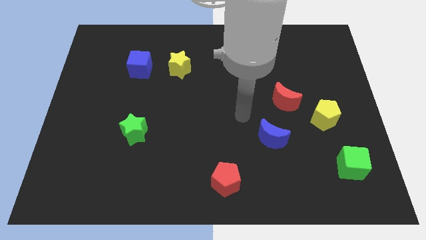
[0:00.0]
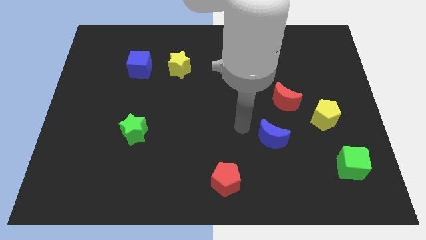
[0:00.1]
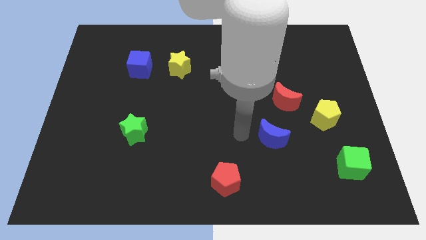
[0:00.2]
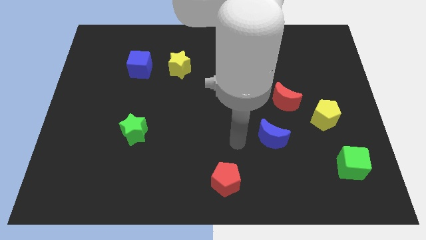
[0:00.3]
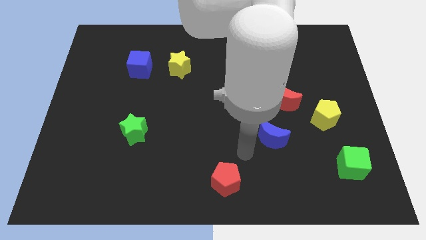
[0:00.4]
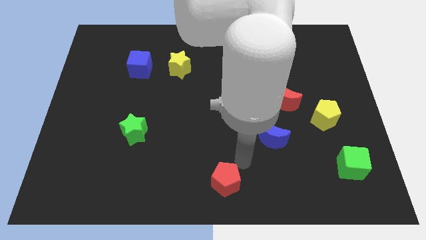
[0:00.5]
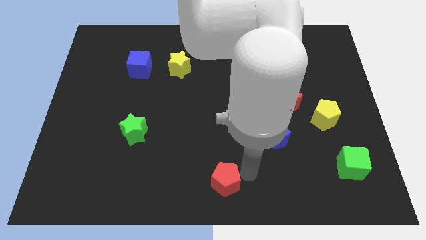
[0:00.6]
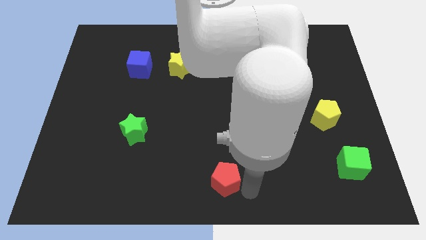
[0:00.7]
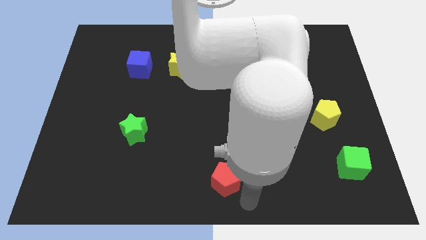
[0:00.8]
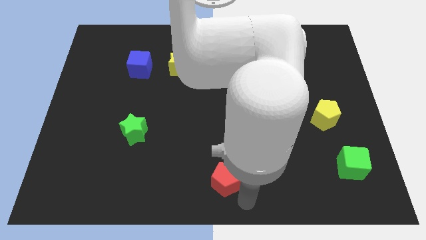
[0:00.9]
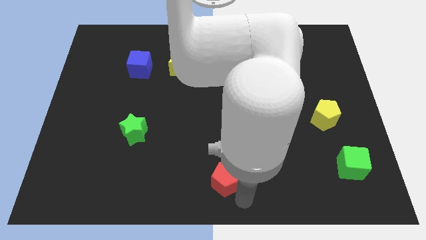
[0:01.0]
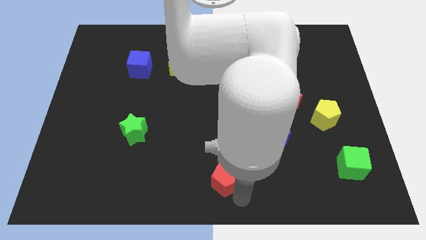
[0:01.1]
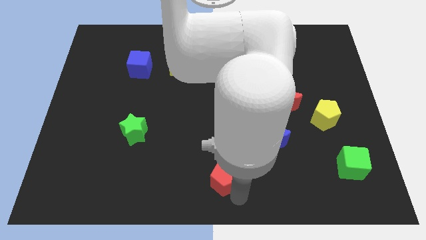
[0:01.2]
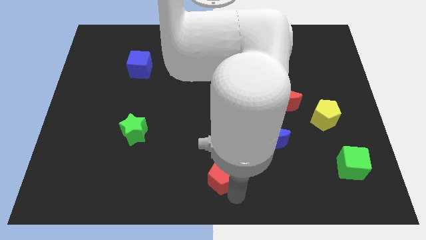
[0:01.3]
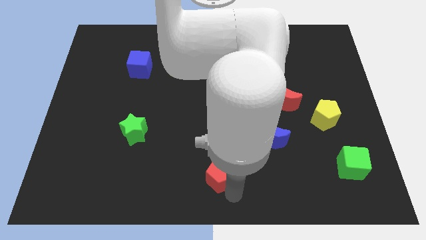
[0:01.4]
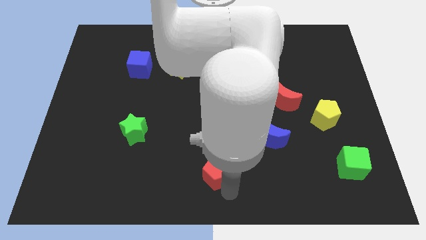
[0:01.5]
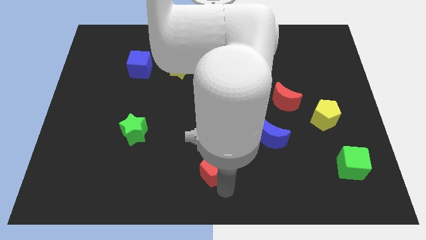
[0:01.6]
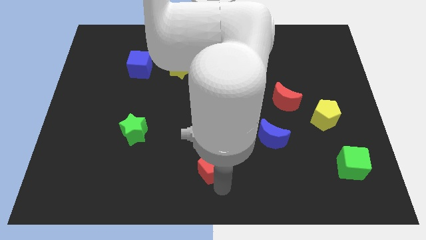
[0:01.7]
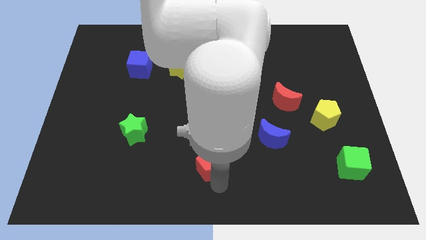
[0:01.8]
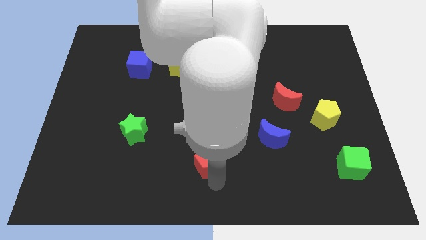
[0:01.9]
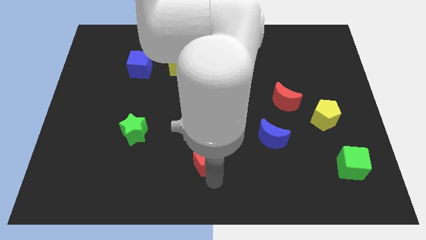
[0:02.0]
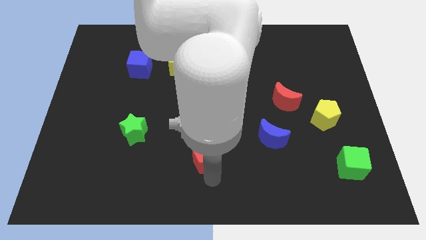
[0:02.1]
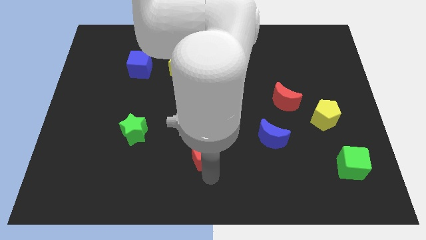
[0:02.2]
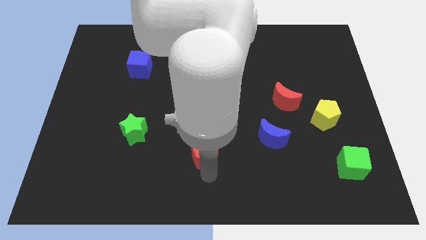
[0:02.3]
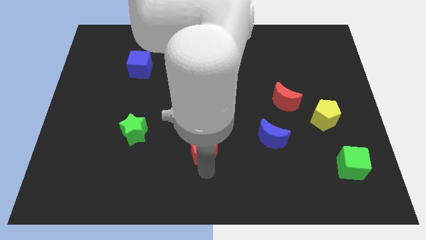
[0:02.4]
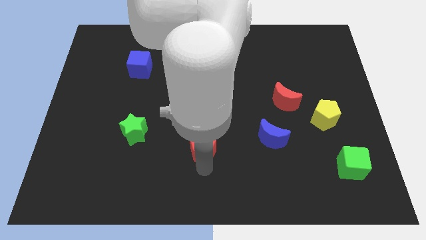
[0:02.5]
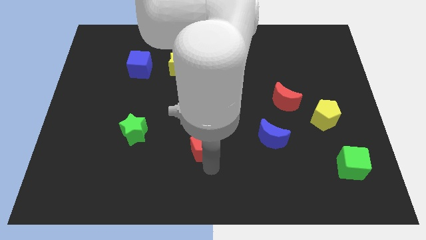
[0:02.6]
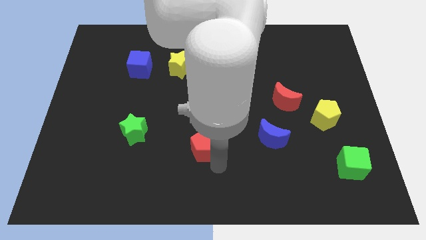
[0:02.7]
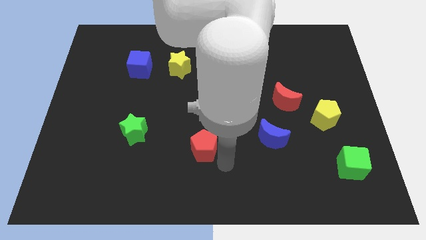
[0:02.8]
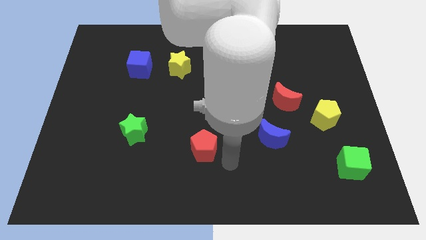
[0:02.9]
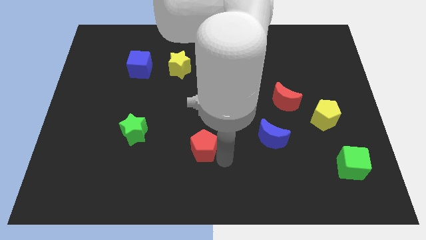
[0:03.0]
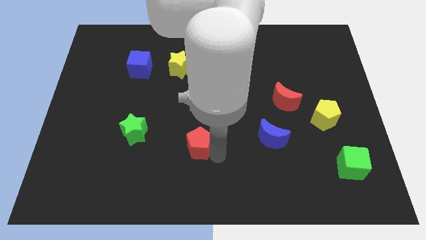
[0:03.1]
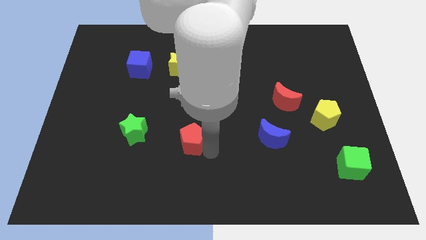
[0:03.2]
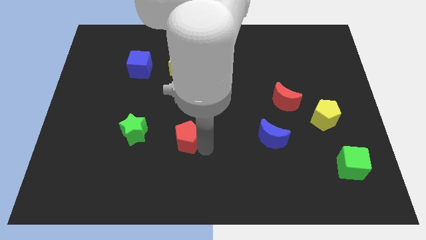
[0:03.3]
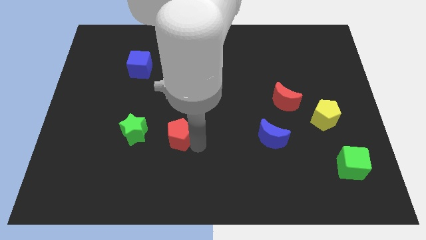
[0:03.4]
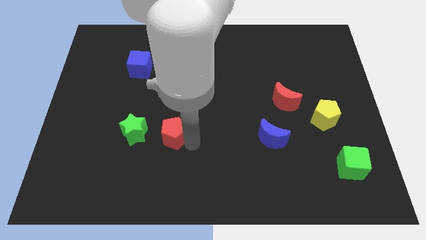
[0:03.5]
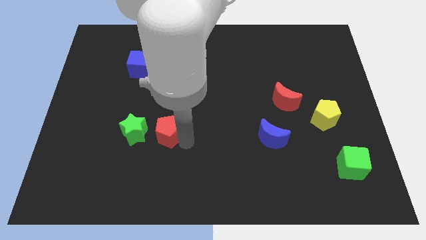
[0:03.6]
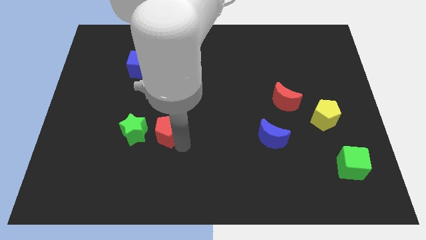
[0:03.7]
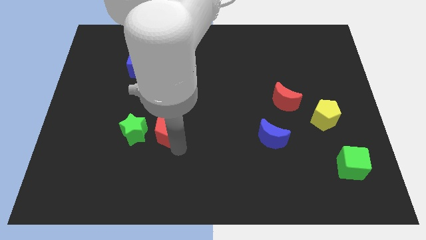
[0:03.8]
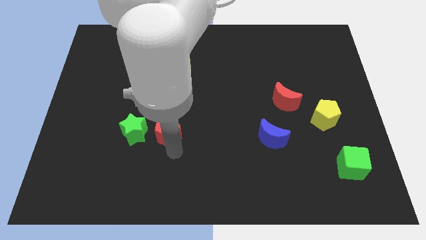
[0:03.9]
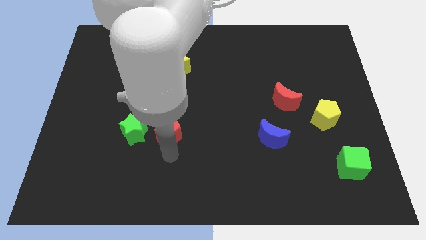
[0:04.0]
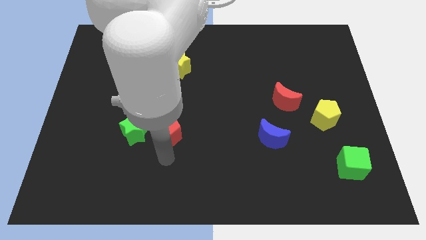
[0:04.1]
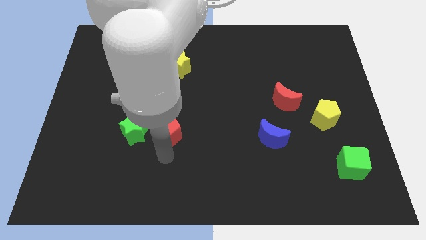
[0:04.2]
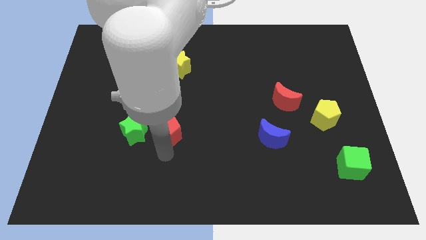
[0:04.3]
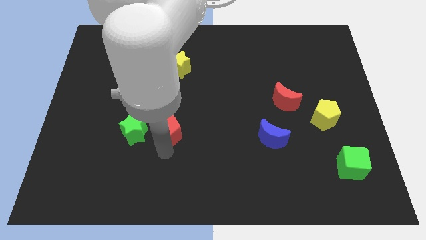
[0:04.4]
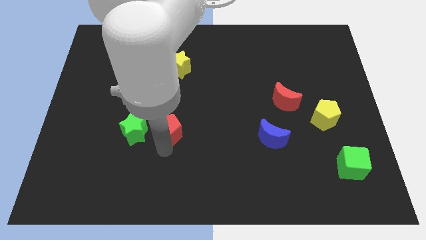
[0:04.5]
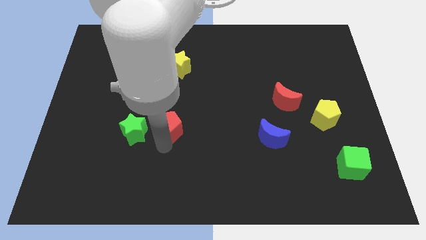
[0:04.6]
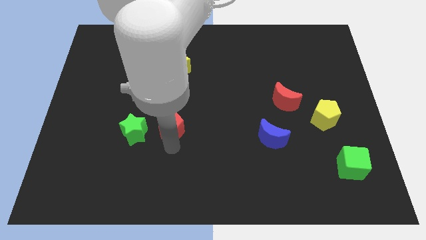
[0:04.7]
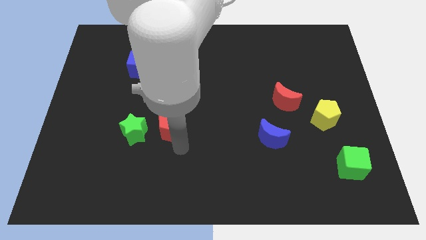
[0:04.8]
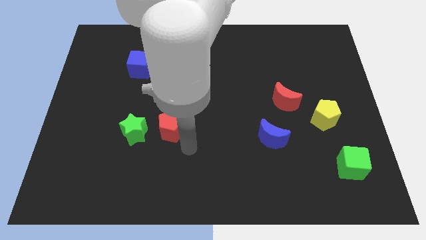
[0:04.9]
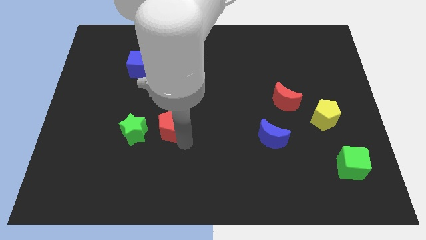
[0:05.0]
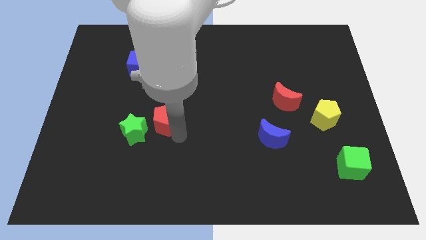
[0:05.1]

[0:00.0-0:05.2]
slide the red pentagon upwards and then to the left

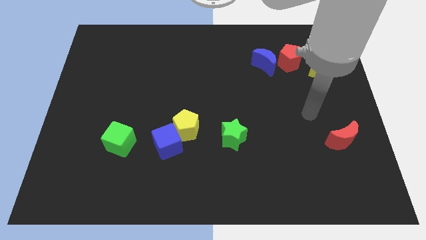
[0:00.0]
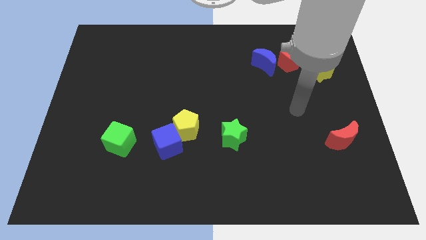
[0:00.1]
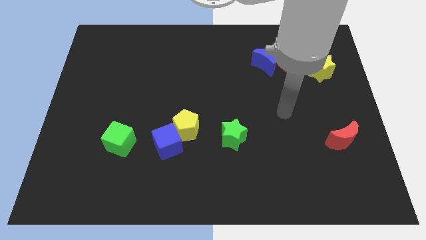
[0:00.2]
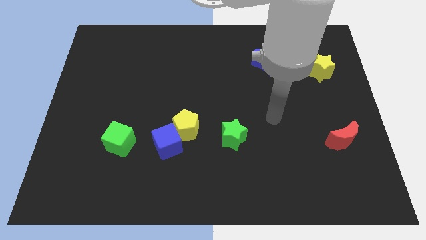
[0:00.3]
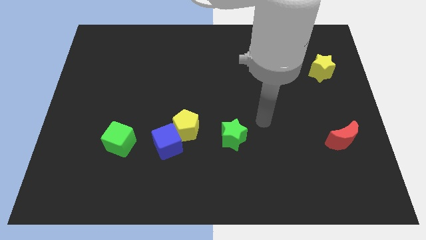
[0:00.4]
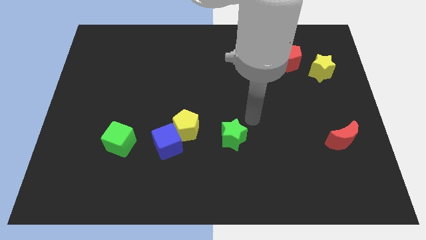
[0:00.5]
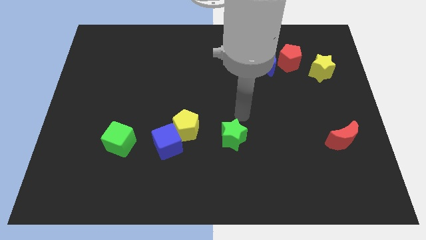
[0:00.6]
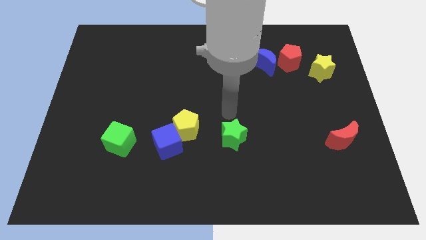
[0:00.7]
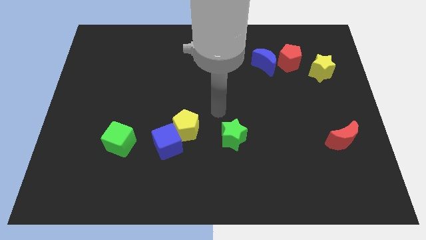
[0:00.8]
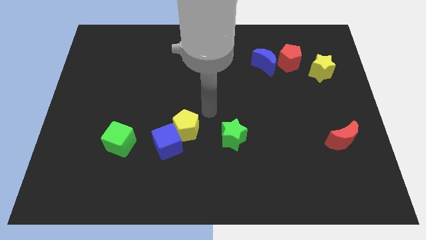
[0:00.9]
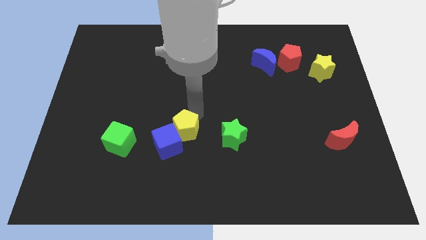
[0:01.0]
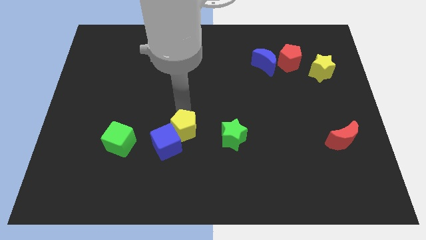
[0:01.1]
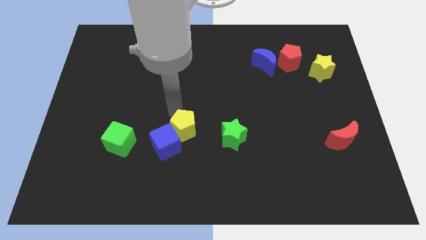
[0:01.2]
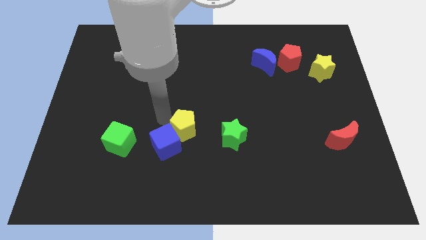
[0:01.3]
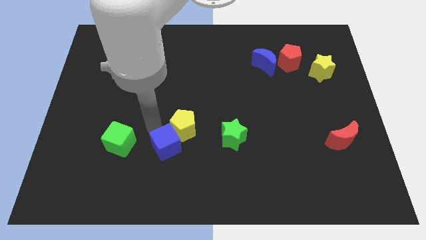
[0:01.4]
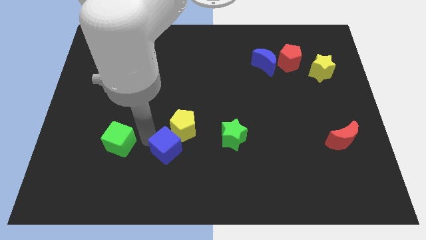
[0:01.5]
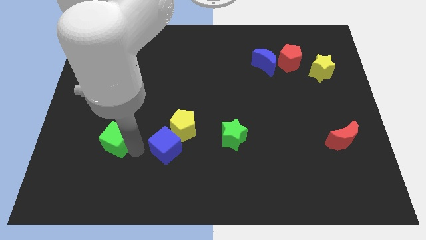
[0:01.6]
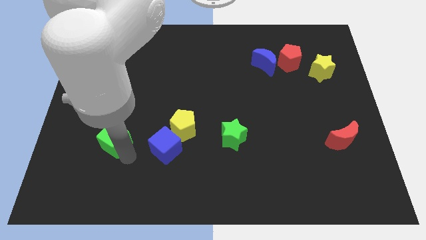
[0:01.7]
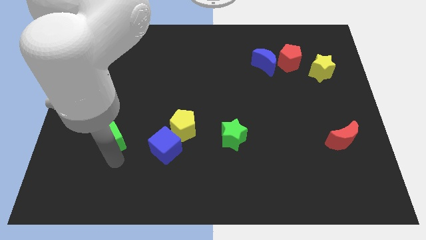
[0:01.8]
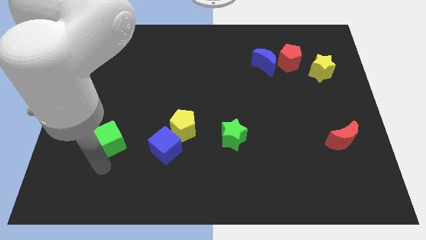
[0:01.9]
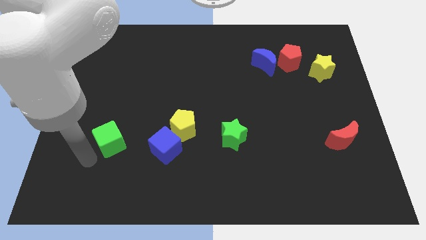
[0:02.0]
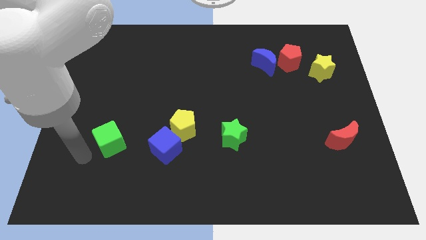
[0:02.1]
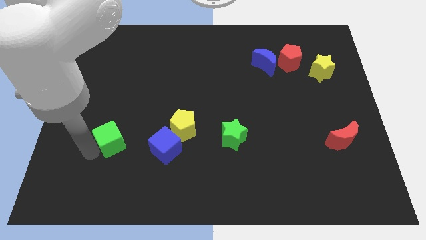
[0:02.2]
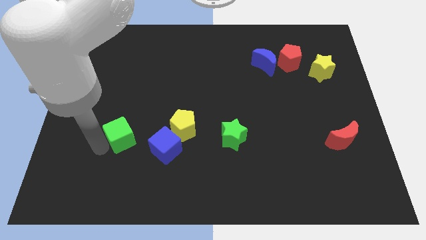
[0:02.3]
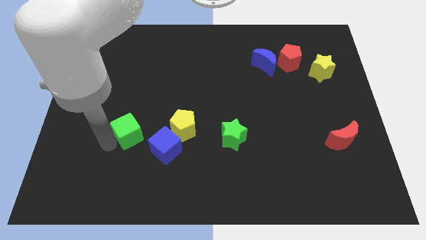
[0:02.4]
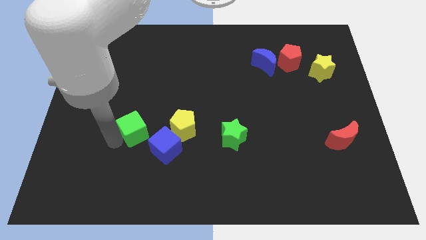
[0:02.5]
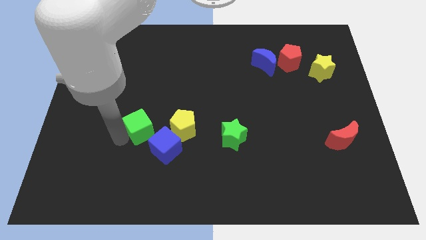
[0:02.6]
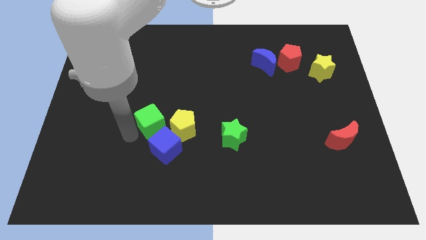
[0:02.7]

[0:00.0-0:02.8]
move the green cube diagonally upwards and to the right a bit

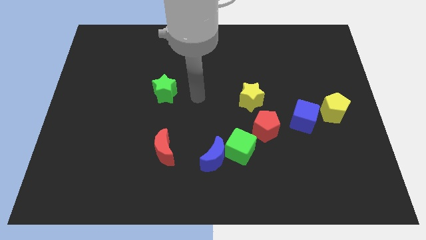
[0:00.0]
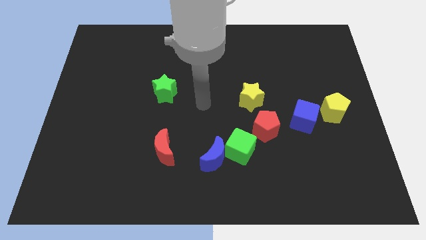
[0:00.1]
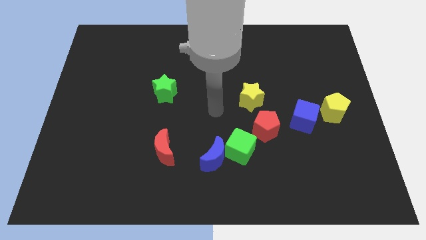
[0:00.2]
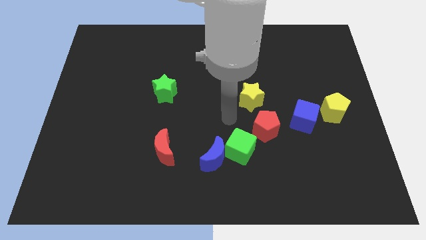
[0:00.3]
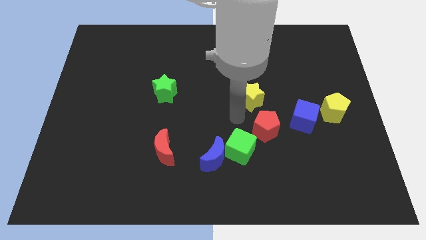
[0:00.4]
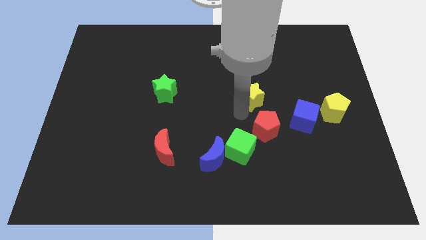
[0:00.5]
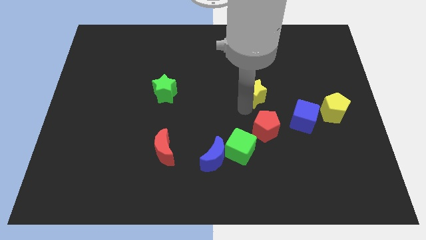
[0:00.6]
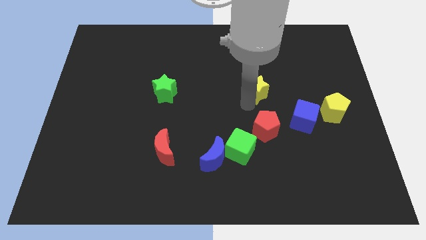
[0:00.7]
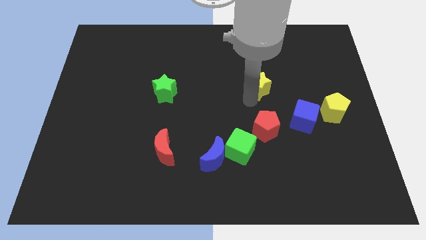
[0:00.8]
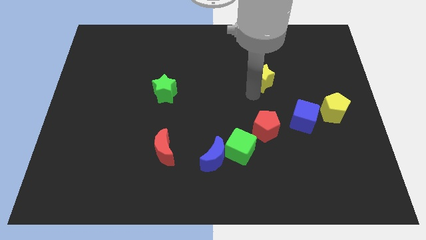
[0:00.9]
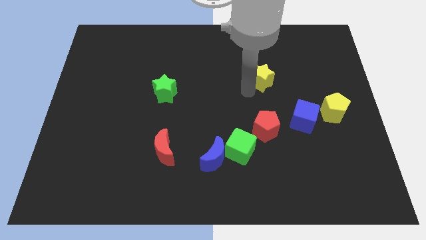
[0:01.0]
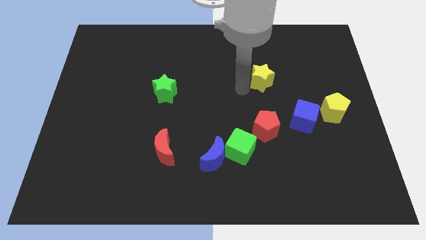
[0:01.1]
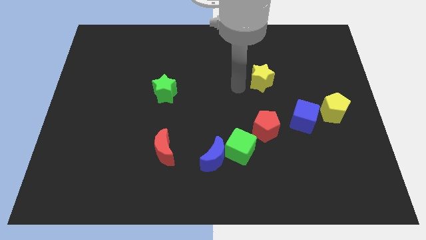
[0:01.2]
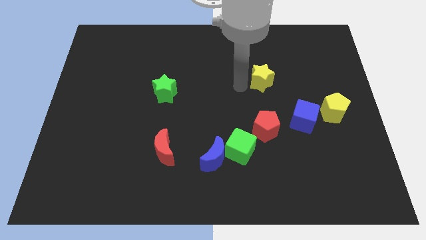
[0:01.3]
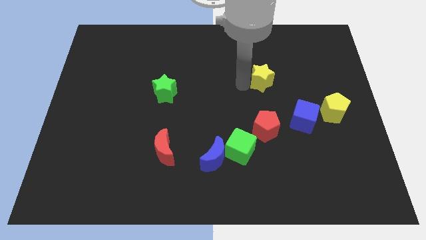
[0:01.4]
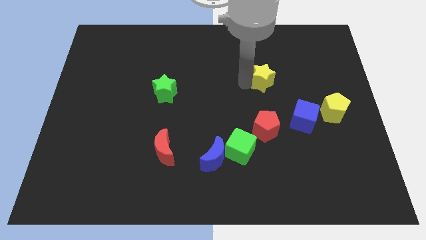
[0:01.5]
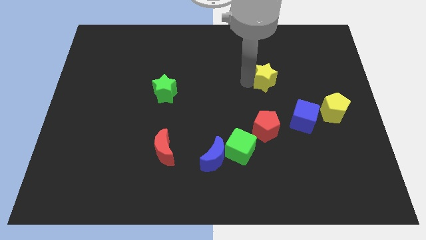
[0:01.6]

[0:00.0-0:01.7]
move the yellow star somewhat diagonally up and to the right
